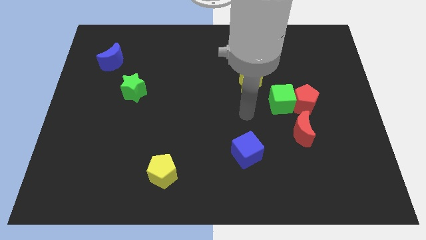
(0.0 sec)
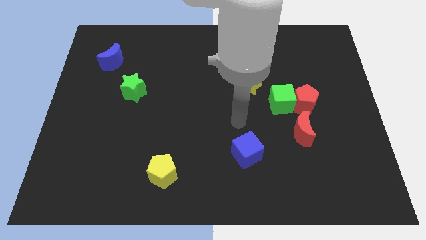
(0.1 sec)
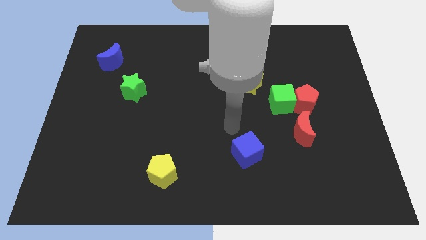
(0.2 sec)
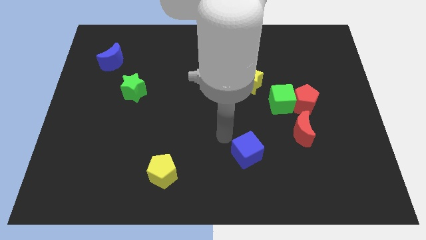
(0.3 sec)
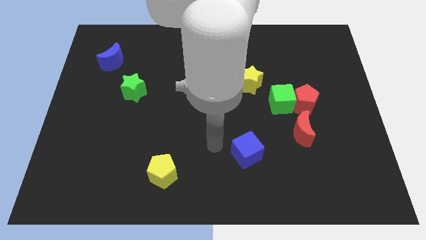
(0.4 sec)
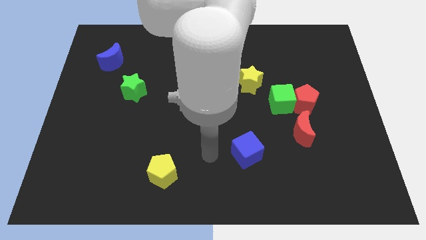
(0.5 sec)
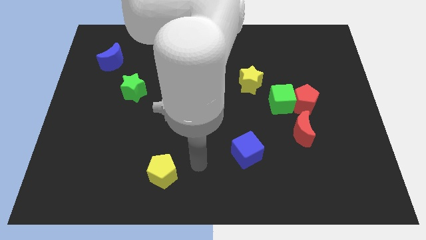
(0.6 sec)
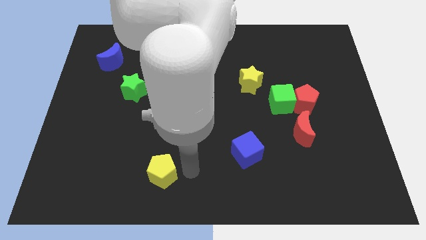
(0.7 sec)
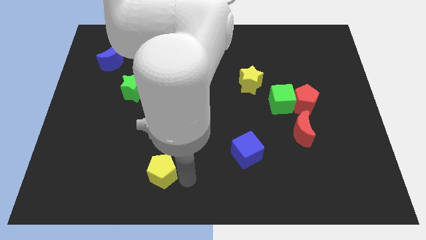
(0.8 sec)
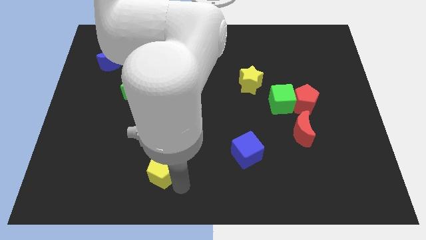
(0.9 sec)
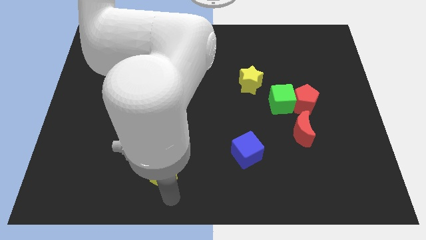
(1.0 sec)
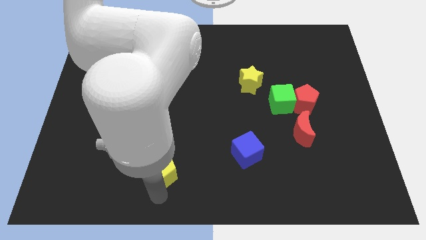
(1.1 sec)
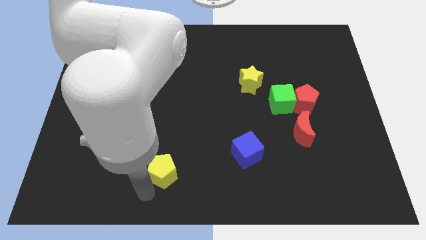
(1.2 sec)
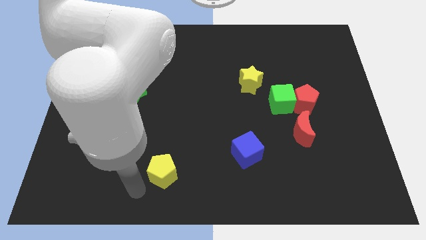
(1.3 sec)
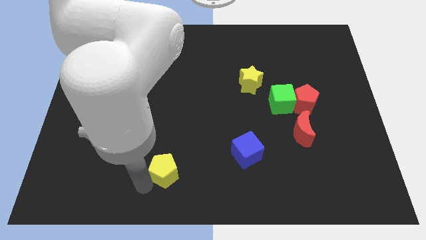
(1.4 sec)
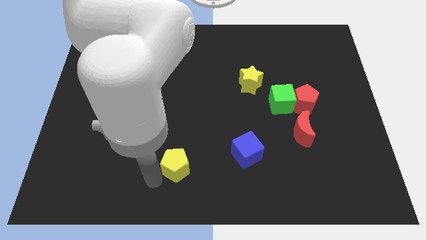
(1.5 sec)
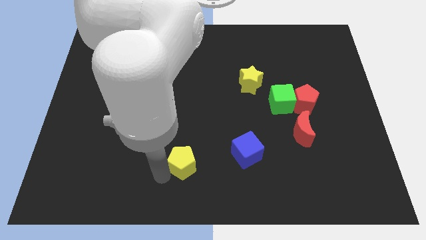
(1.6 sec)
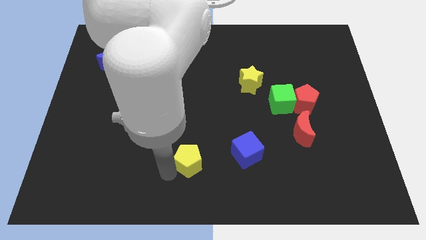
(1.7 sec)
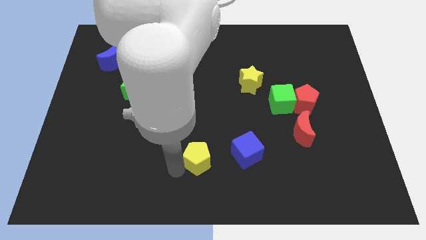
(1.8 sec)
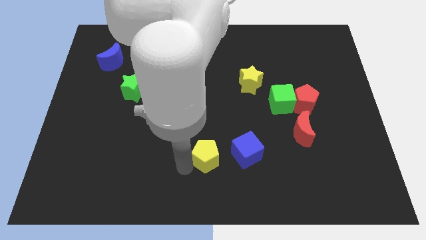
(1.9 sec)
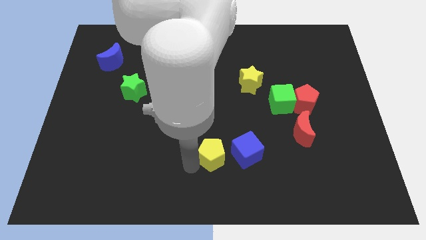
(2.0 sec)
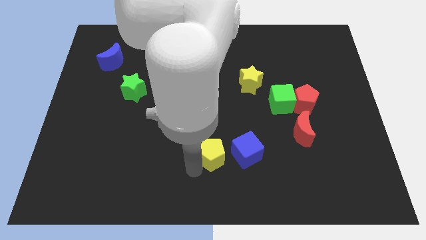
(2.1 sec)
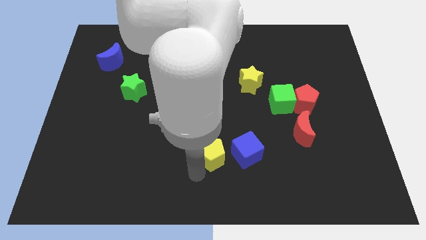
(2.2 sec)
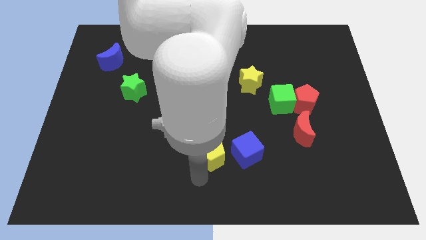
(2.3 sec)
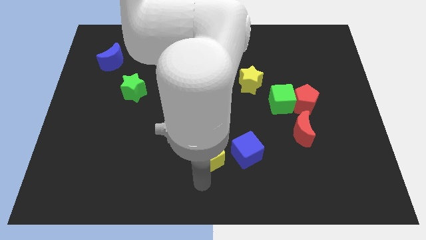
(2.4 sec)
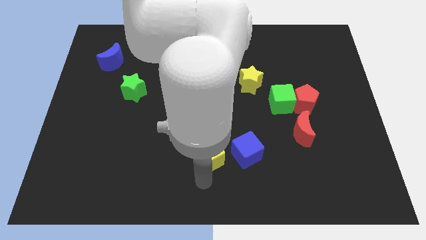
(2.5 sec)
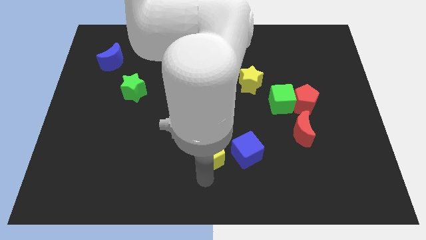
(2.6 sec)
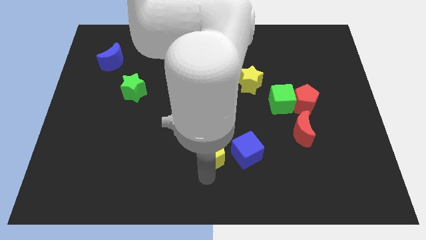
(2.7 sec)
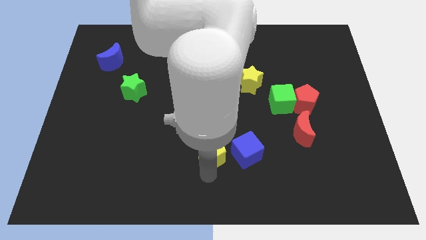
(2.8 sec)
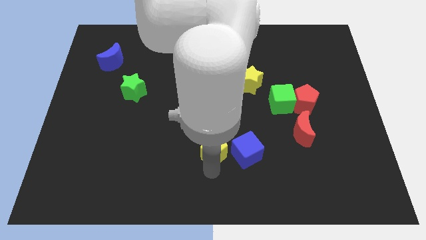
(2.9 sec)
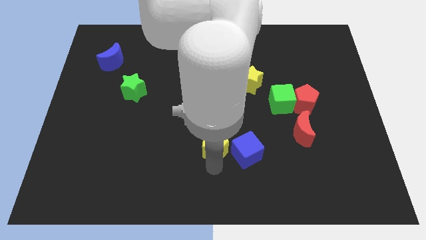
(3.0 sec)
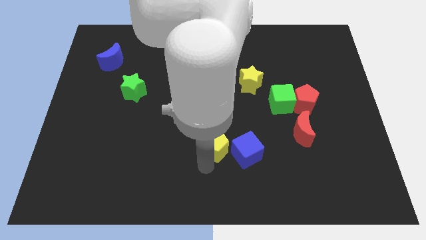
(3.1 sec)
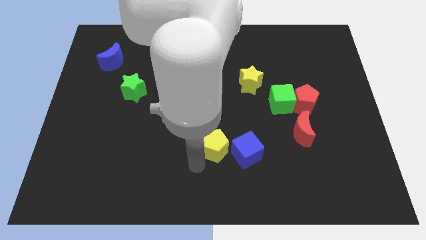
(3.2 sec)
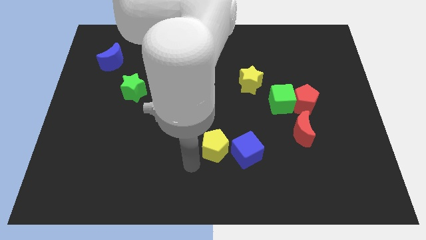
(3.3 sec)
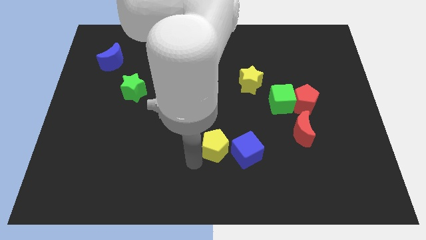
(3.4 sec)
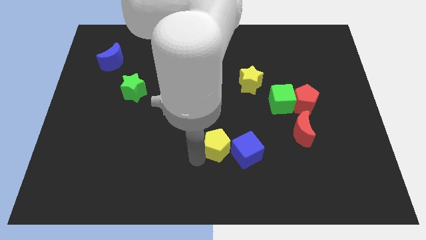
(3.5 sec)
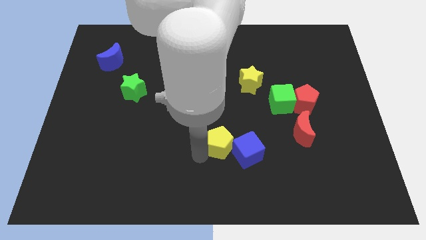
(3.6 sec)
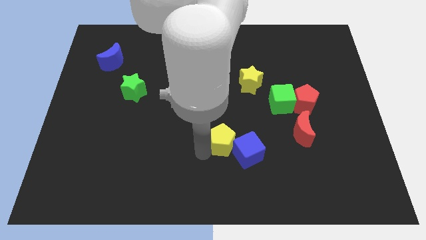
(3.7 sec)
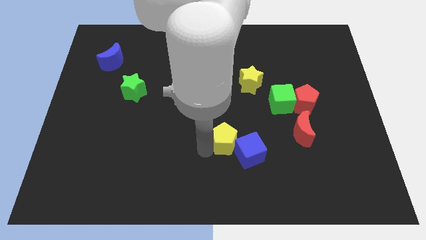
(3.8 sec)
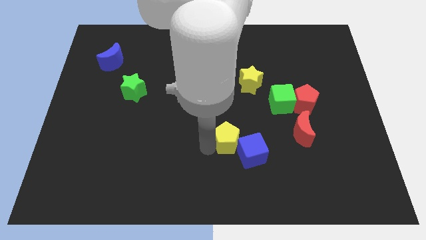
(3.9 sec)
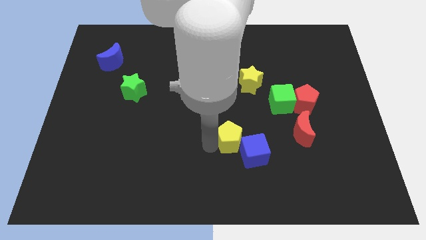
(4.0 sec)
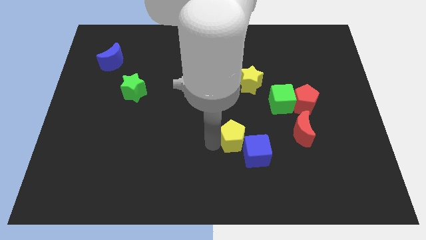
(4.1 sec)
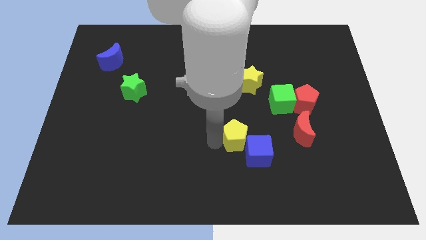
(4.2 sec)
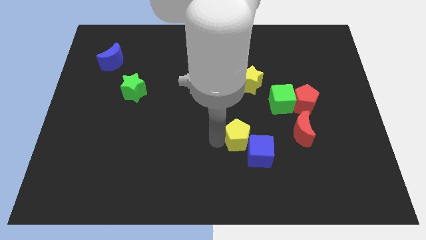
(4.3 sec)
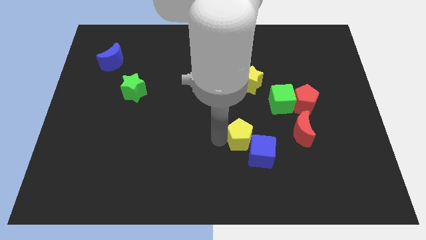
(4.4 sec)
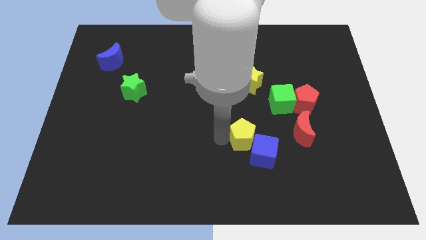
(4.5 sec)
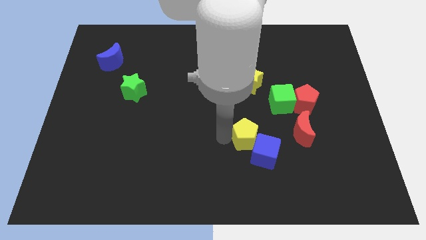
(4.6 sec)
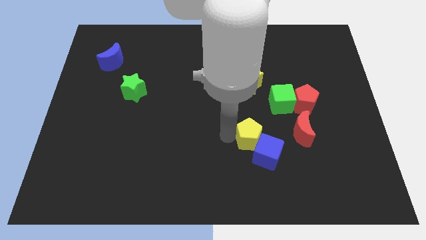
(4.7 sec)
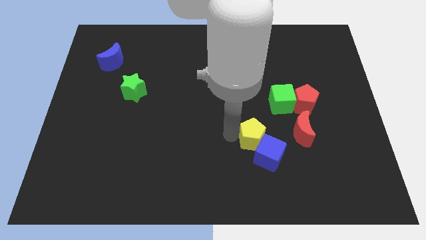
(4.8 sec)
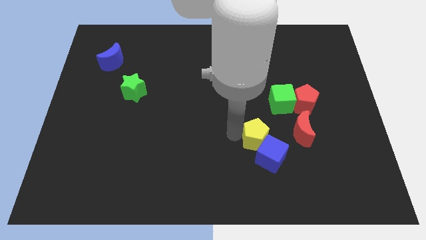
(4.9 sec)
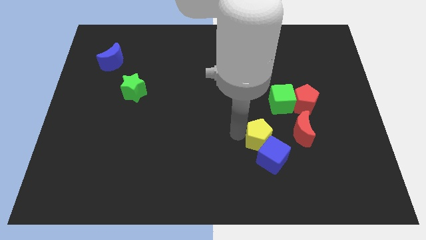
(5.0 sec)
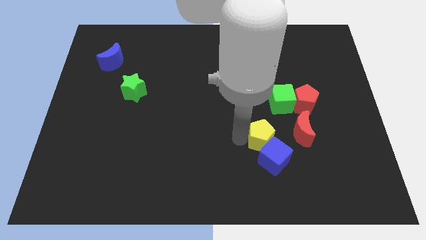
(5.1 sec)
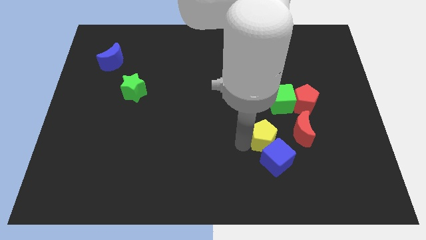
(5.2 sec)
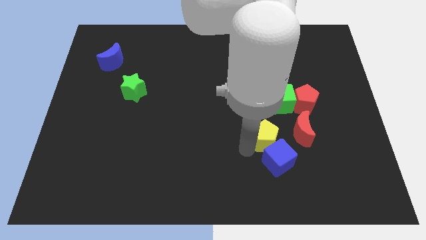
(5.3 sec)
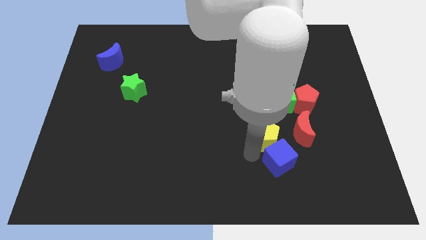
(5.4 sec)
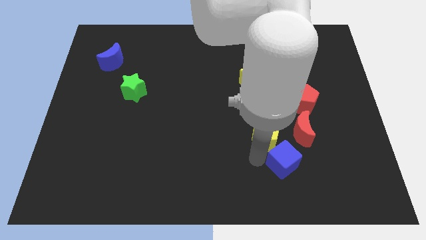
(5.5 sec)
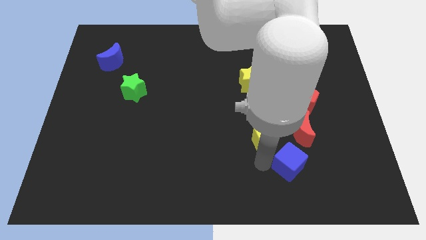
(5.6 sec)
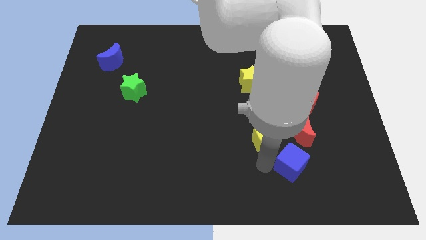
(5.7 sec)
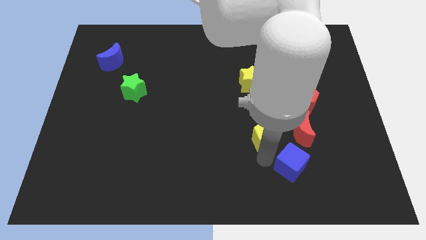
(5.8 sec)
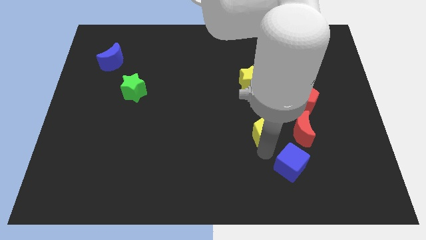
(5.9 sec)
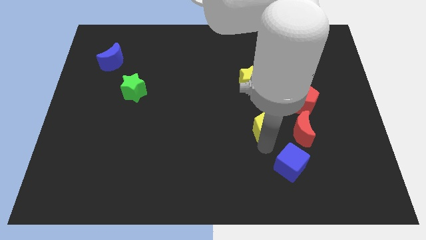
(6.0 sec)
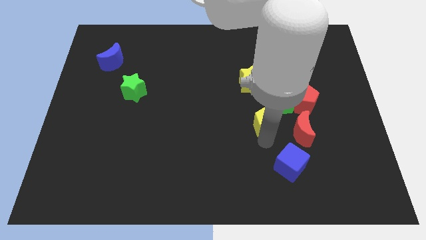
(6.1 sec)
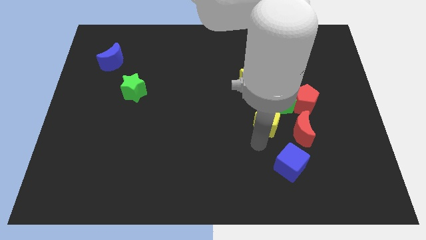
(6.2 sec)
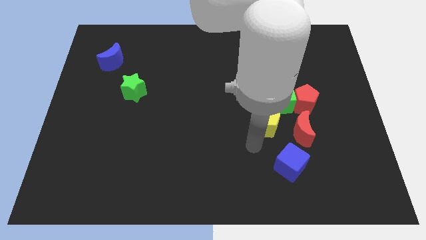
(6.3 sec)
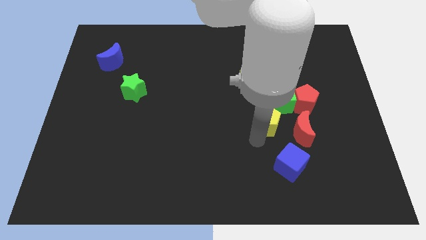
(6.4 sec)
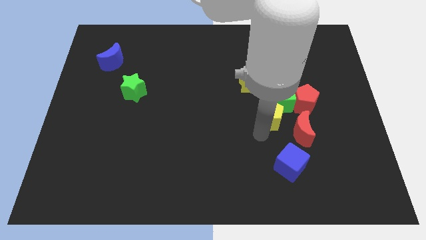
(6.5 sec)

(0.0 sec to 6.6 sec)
slide the yellow pentagon next to the green cube

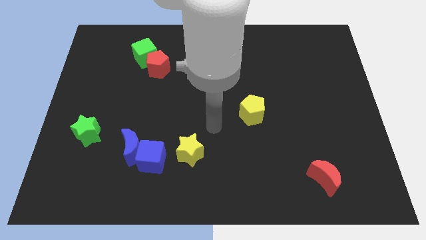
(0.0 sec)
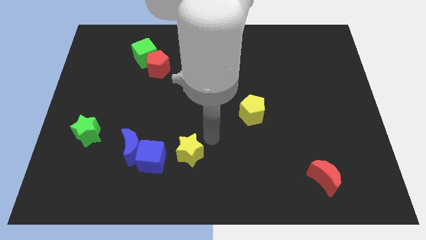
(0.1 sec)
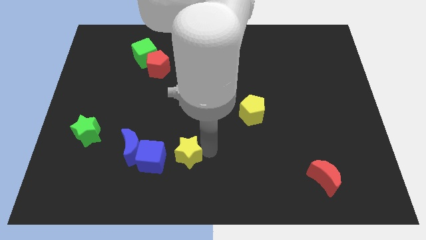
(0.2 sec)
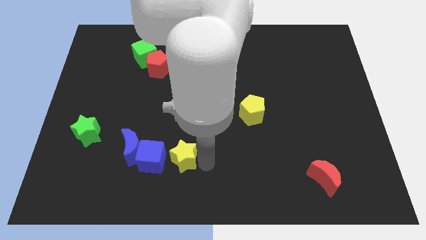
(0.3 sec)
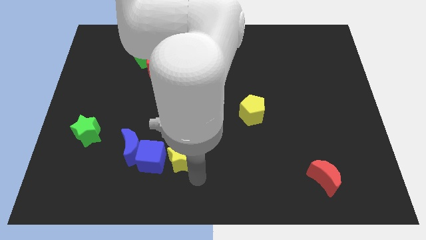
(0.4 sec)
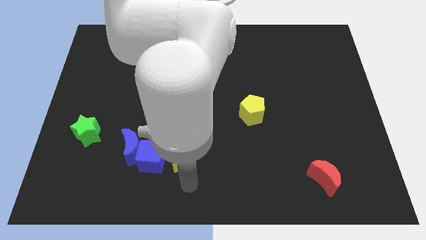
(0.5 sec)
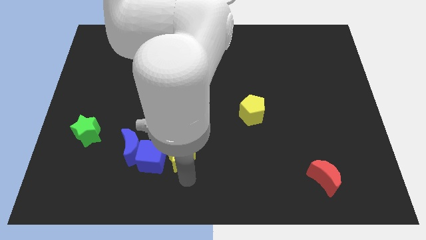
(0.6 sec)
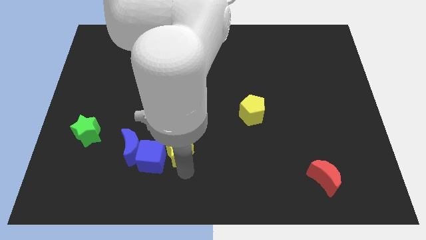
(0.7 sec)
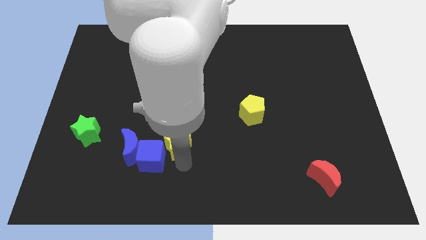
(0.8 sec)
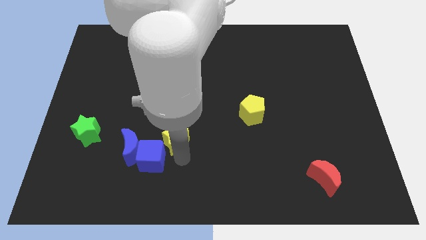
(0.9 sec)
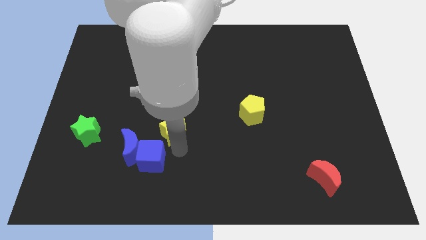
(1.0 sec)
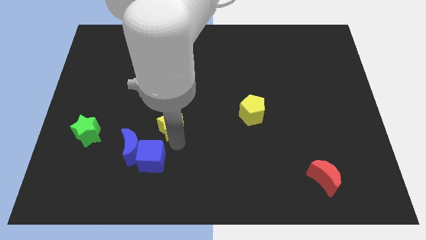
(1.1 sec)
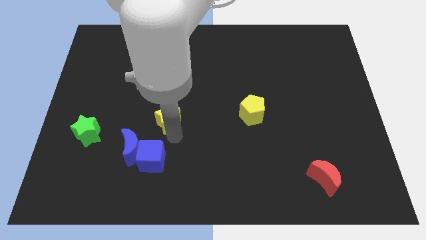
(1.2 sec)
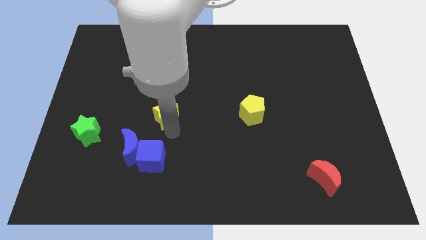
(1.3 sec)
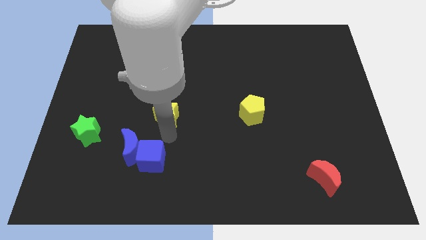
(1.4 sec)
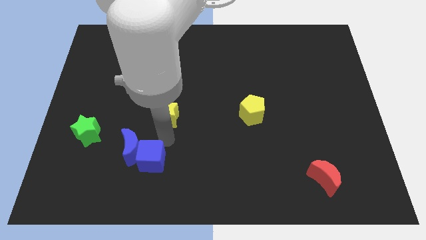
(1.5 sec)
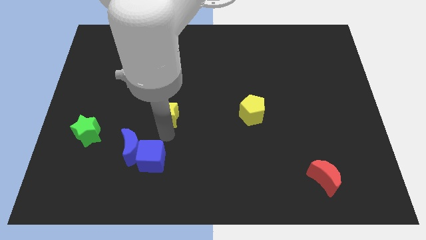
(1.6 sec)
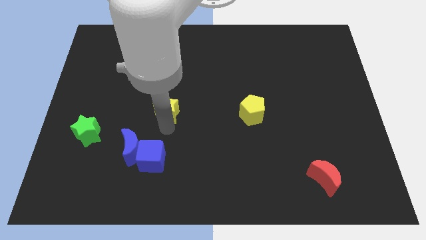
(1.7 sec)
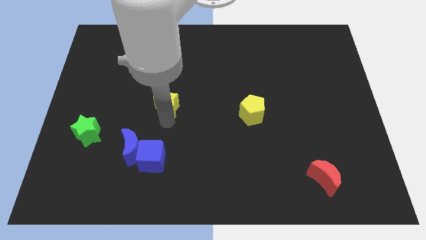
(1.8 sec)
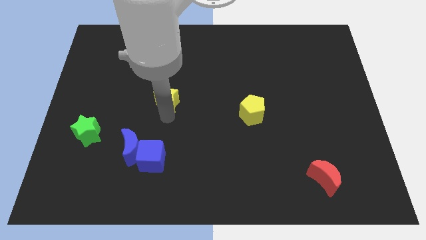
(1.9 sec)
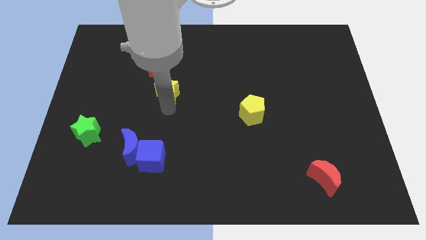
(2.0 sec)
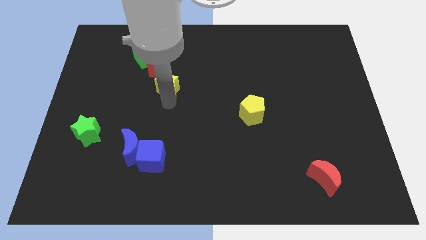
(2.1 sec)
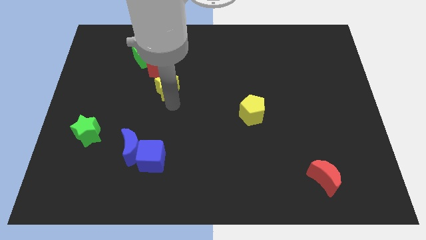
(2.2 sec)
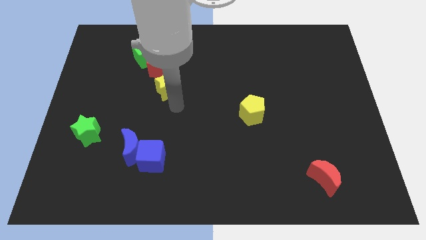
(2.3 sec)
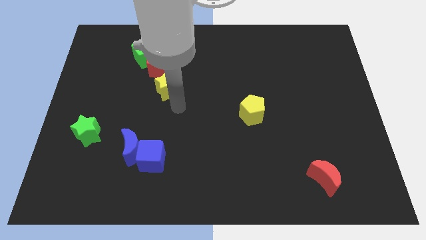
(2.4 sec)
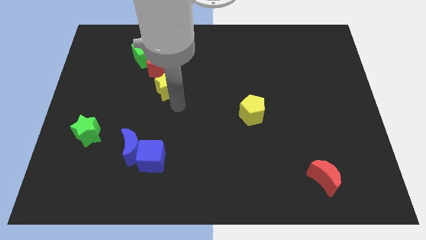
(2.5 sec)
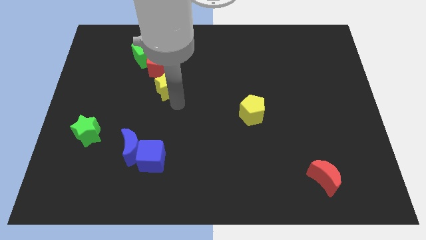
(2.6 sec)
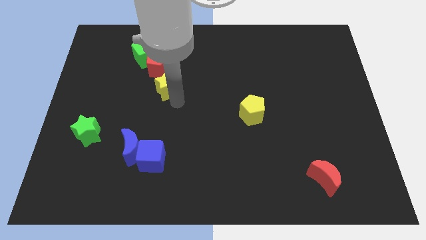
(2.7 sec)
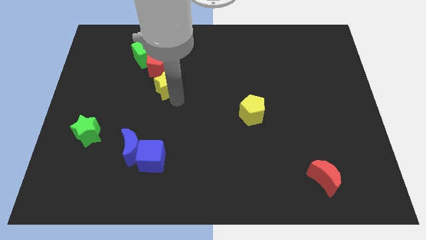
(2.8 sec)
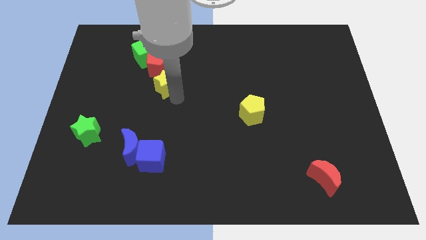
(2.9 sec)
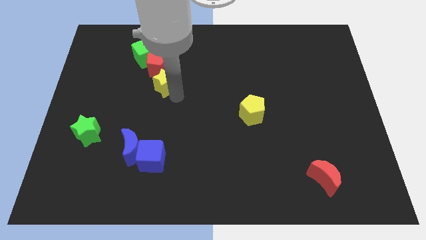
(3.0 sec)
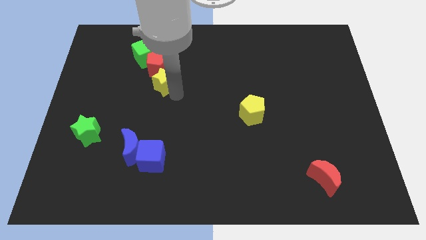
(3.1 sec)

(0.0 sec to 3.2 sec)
push the yellow star to the red pentagon
